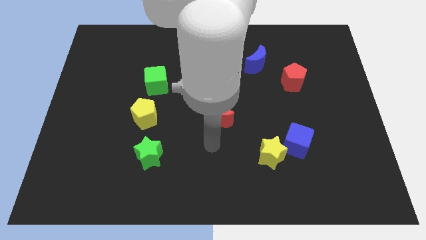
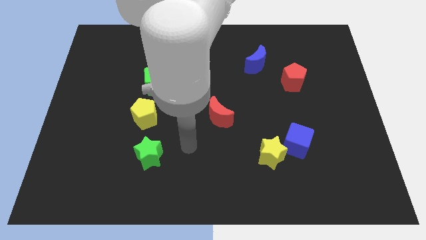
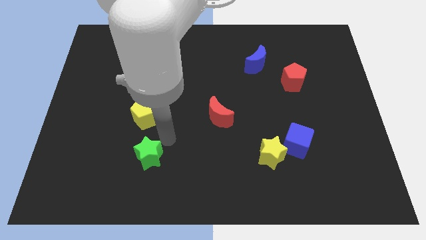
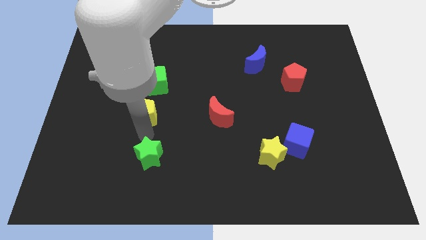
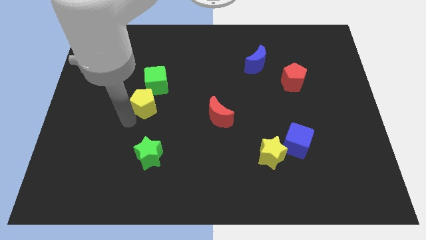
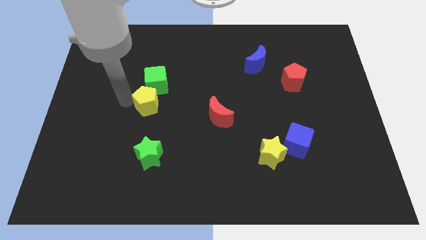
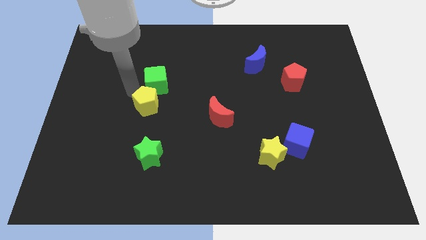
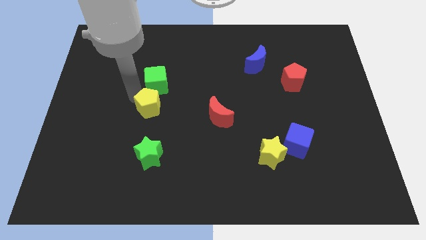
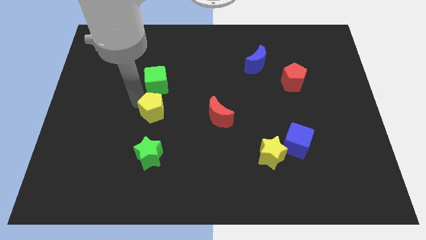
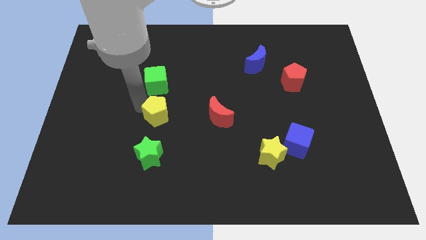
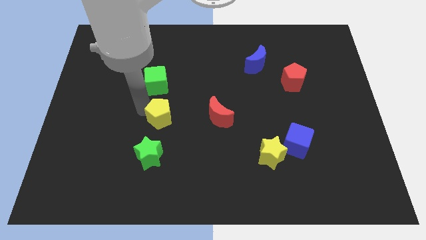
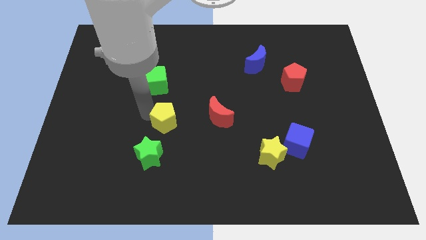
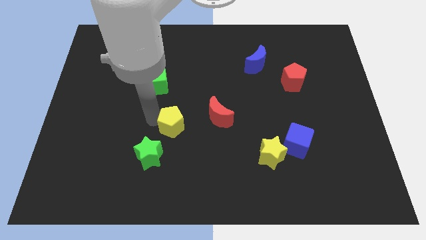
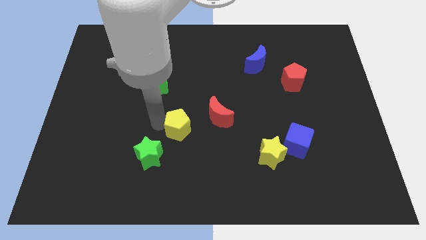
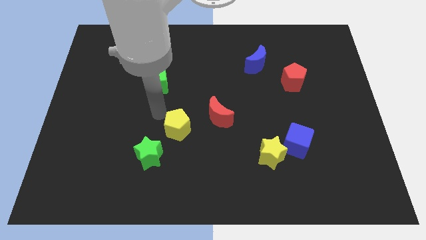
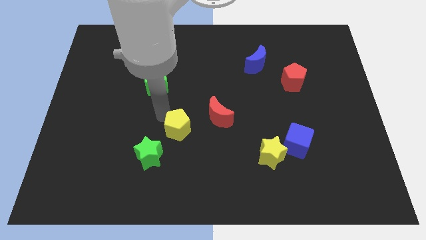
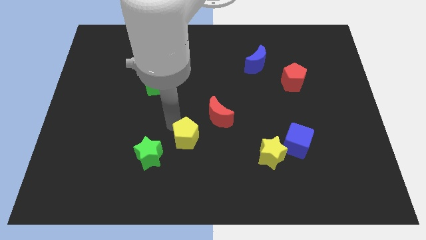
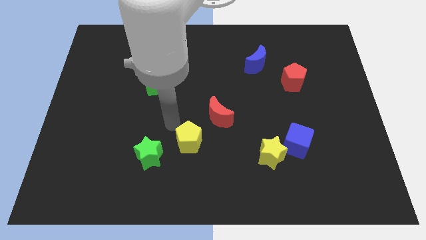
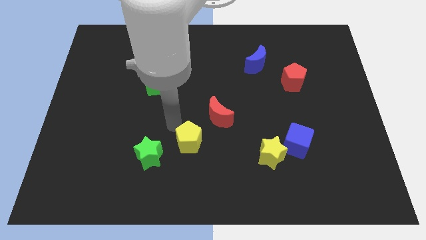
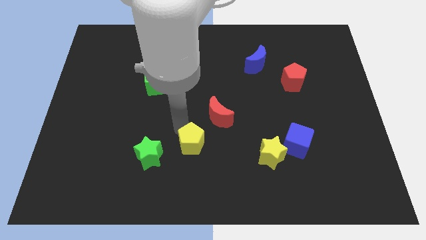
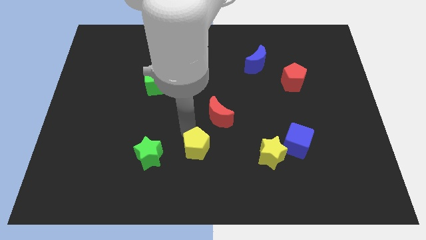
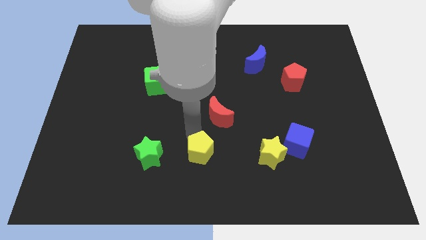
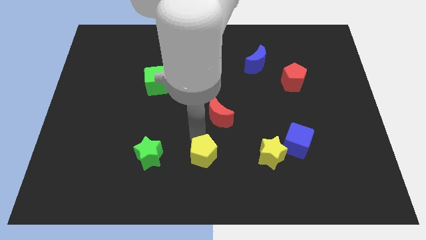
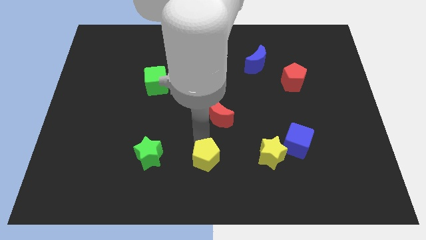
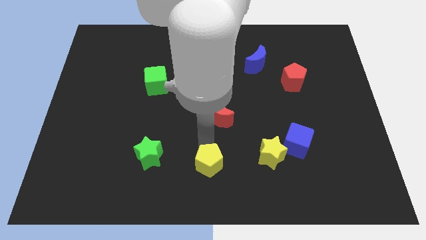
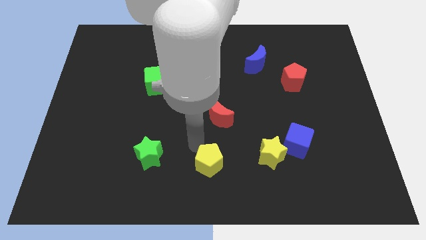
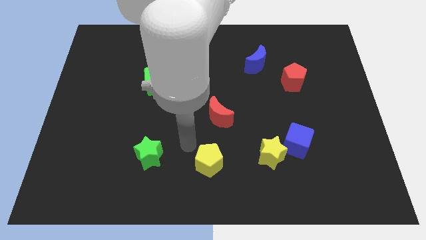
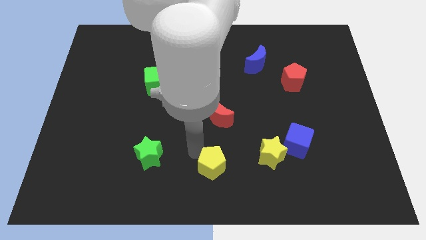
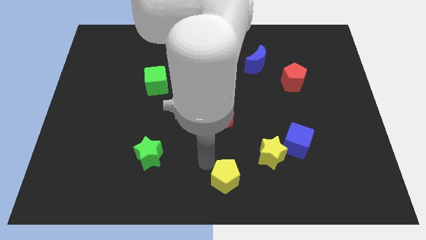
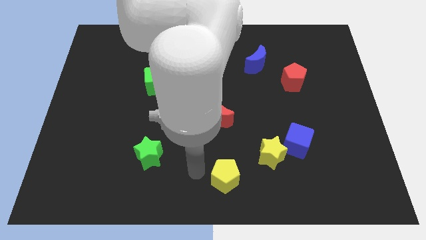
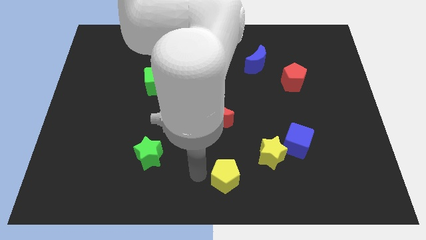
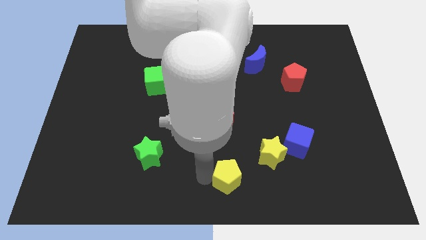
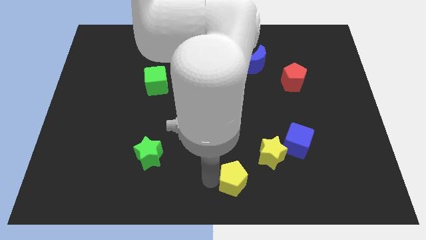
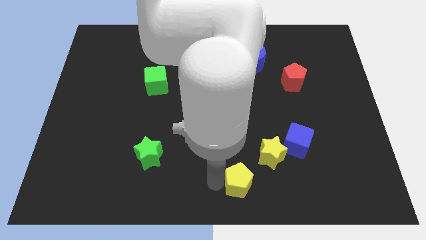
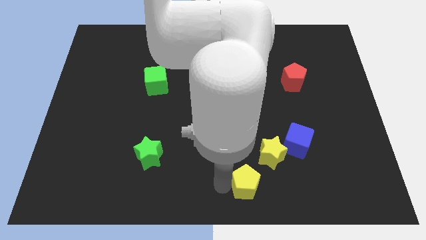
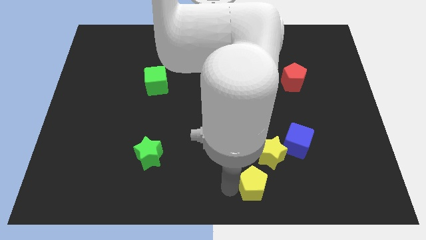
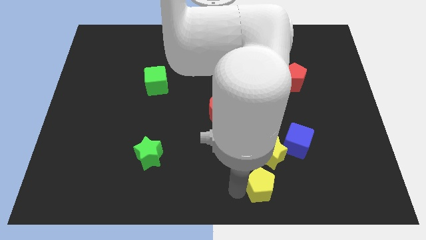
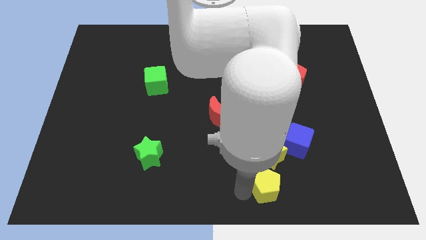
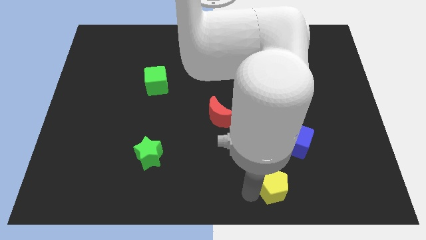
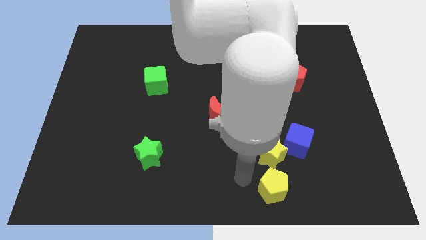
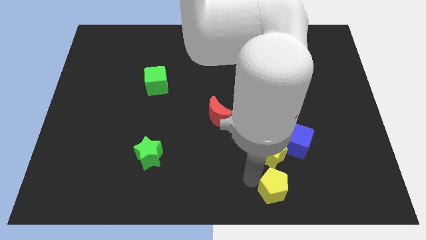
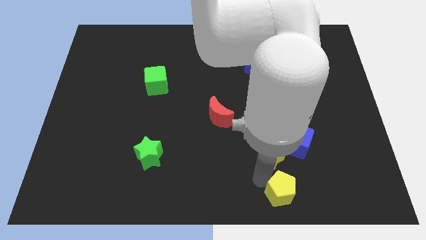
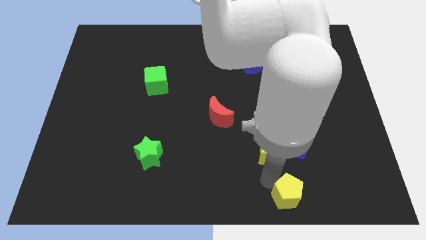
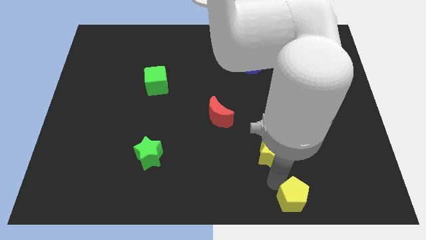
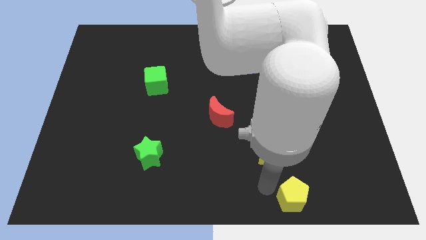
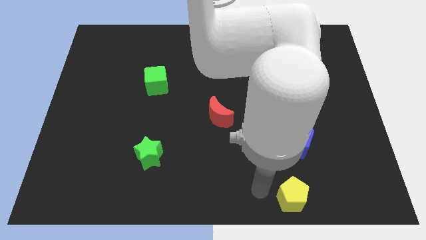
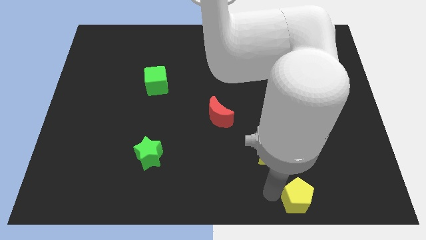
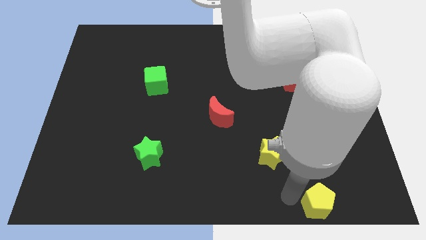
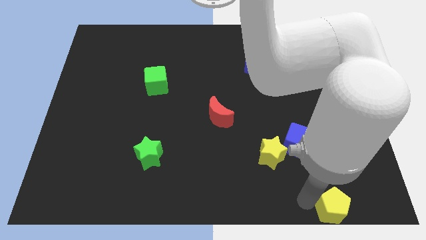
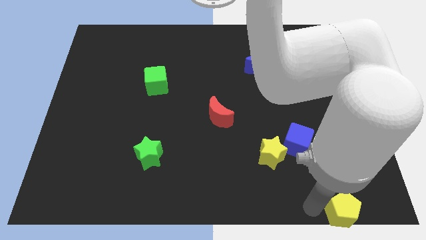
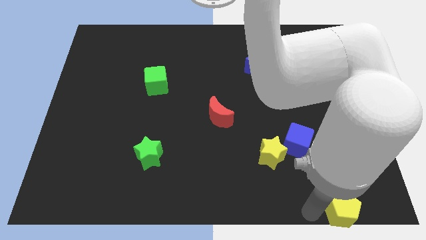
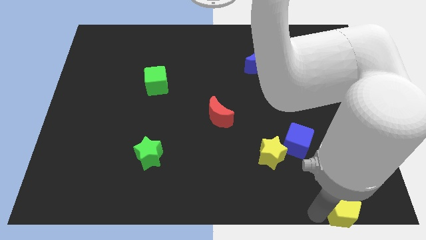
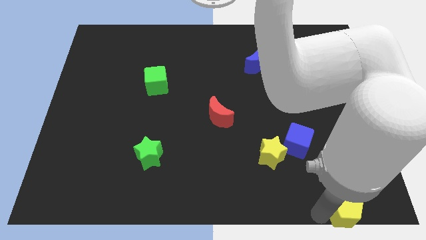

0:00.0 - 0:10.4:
move the yellow pentagon to the bottom right

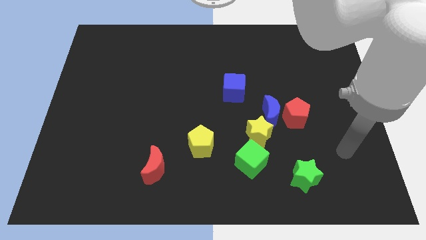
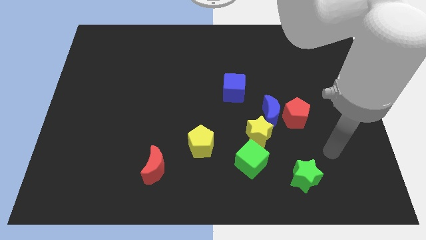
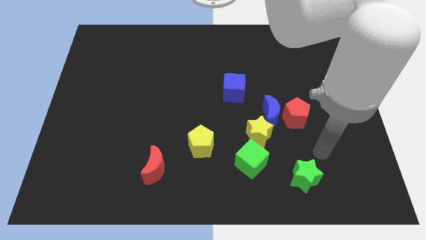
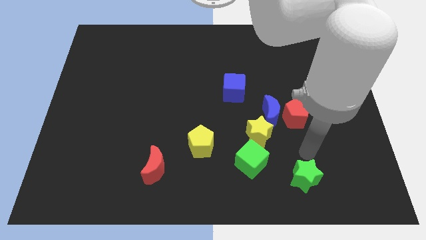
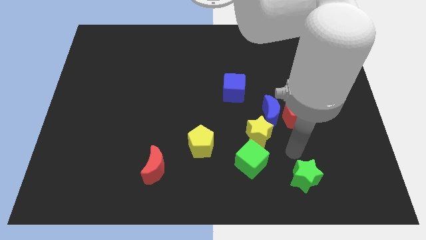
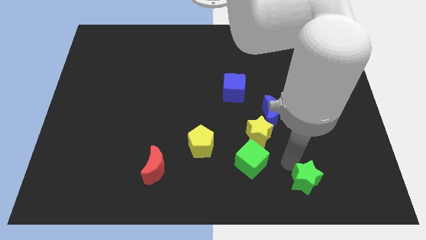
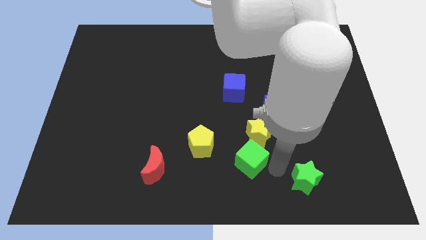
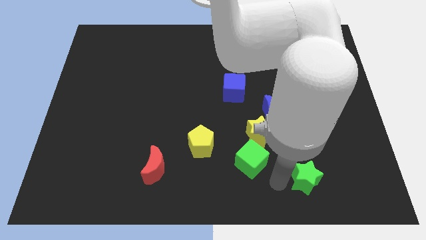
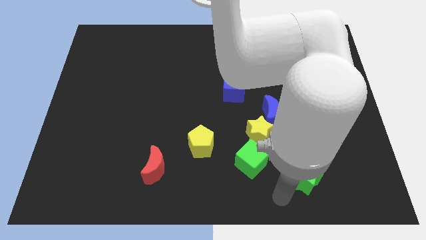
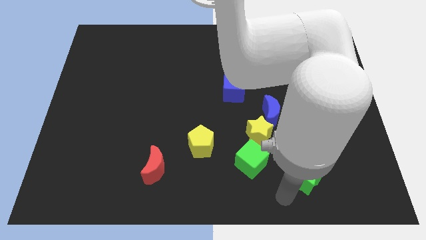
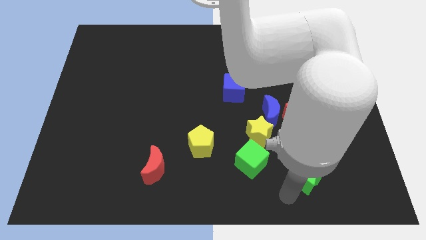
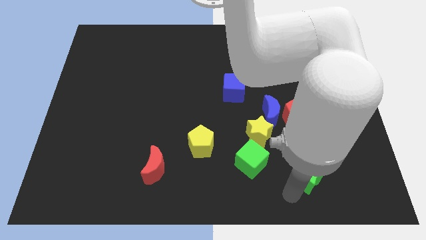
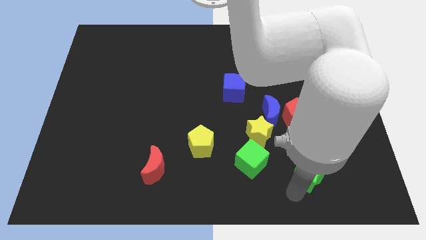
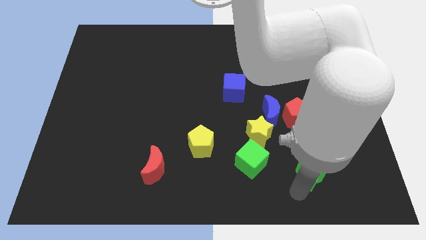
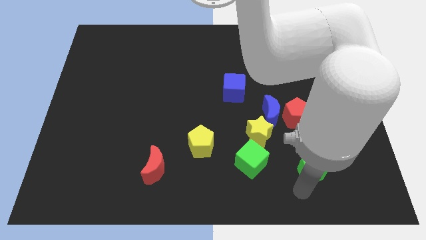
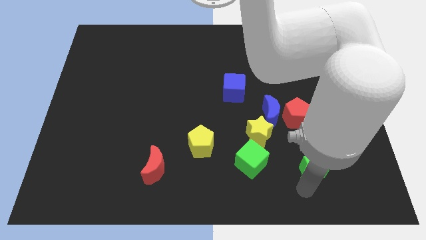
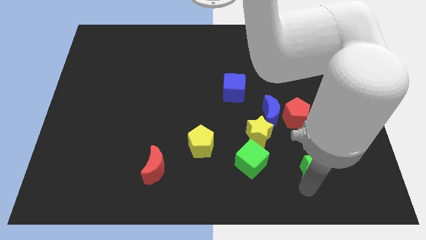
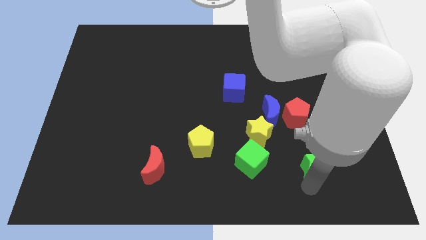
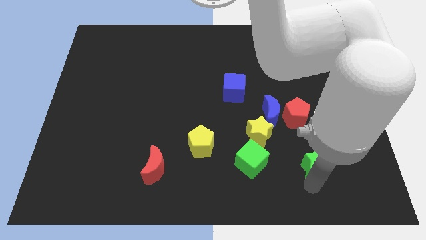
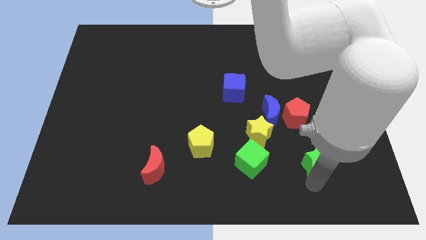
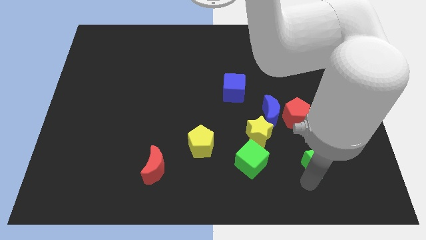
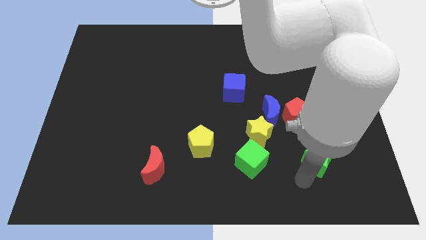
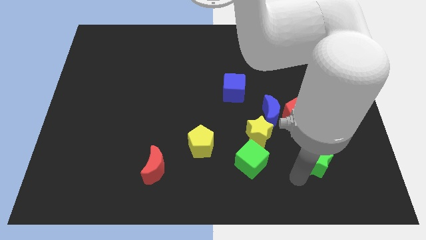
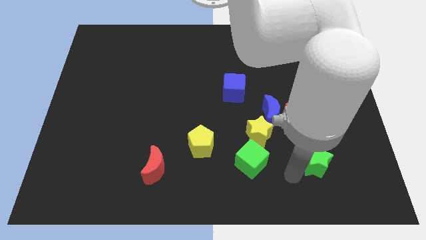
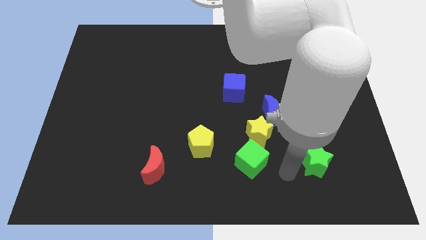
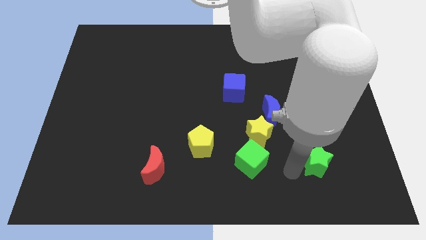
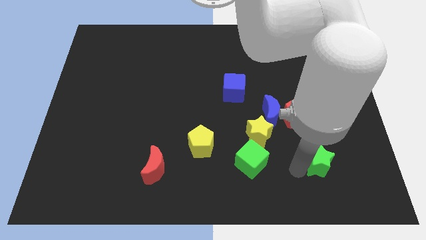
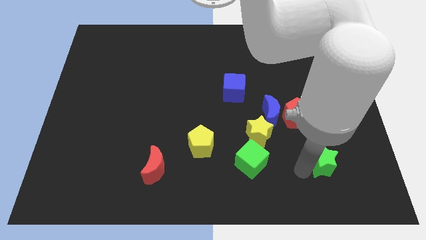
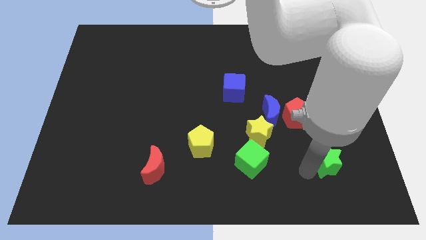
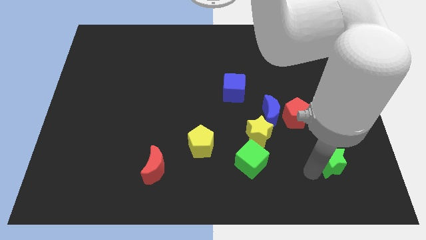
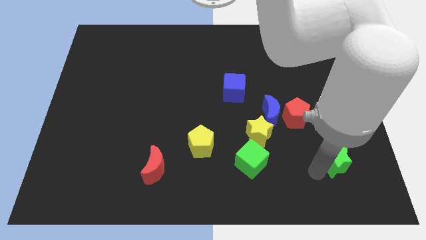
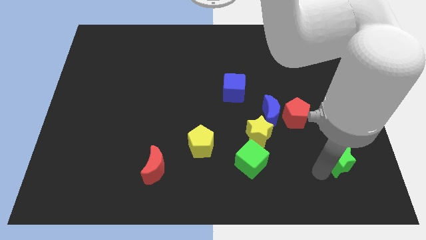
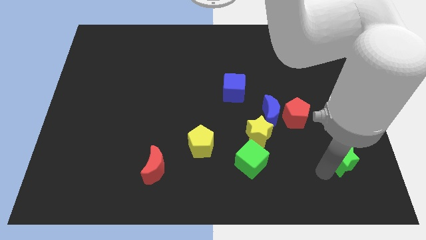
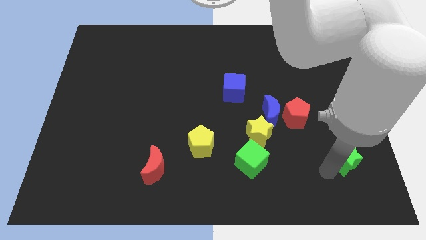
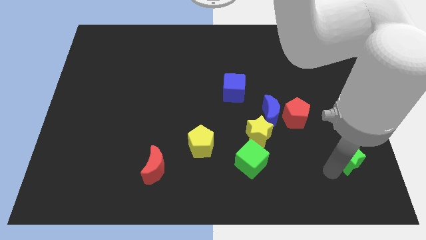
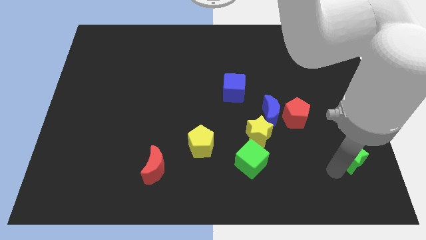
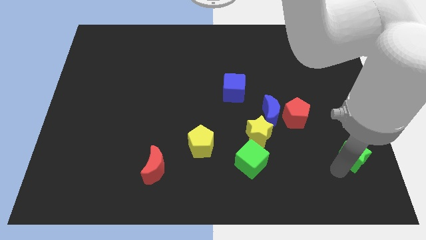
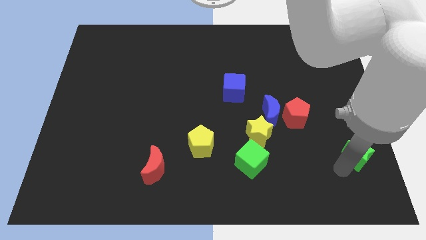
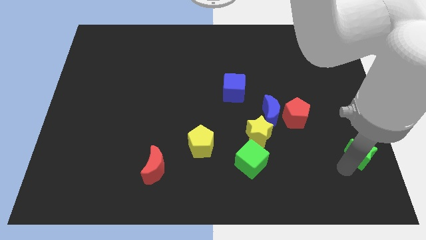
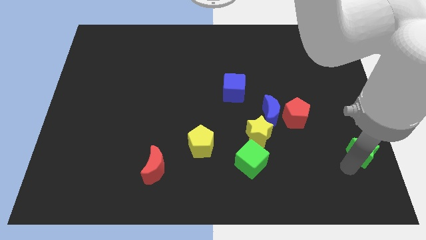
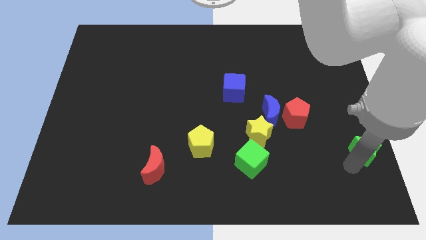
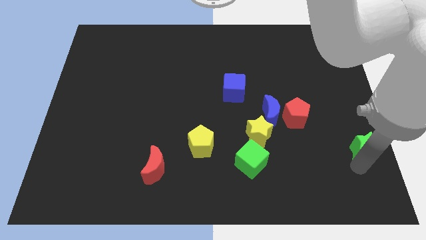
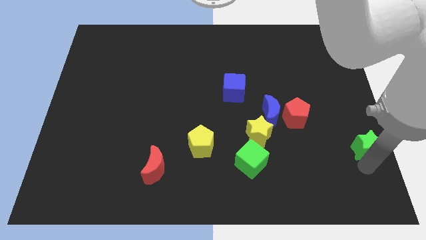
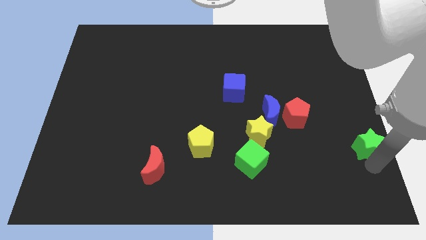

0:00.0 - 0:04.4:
move the green star to the right side of the board
